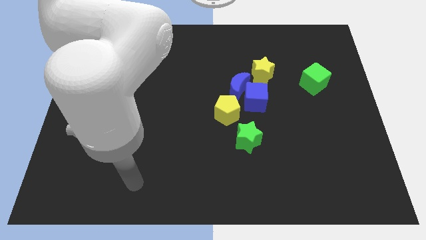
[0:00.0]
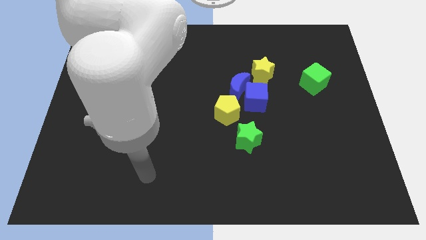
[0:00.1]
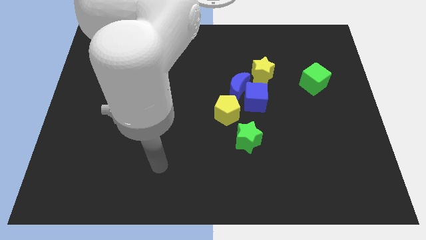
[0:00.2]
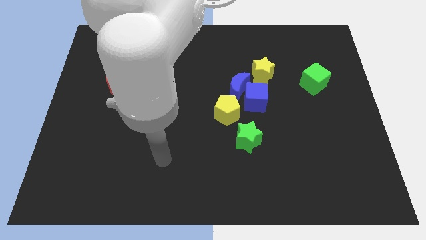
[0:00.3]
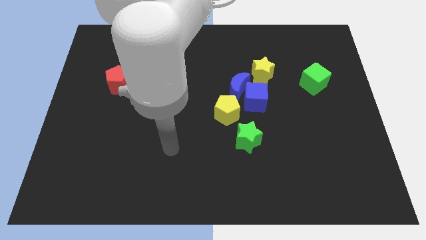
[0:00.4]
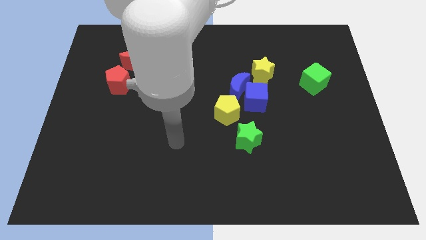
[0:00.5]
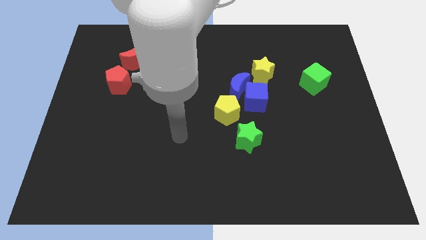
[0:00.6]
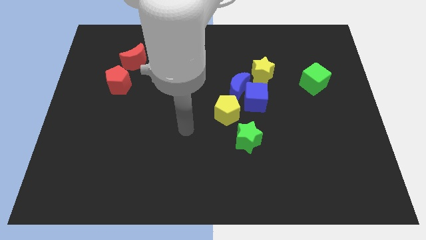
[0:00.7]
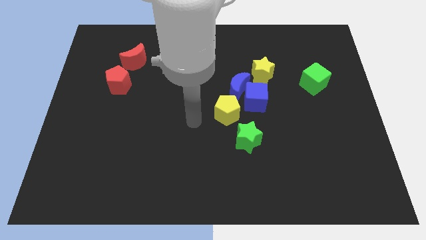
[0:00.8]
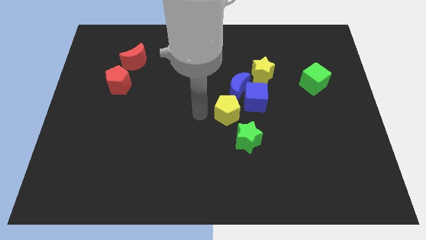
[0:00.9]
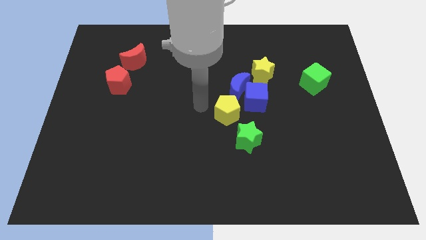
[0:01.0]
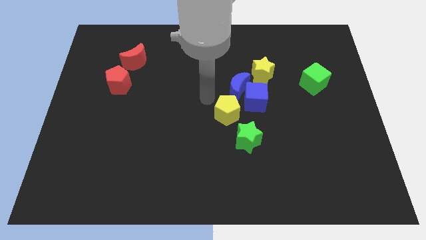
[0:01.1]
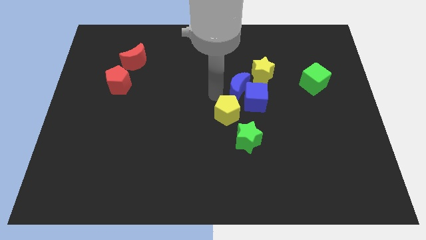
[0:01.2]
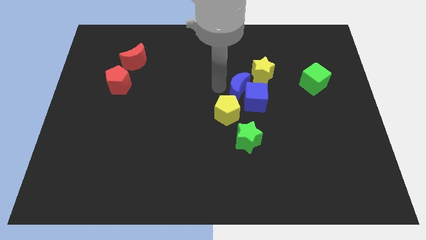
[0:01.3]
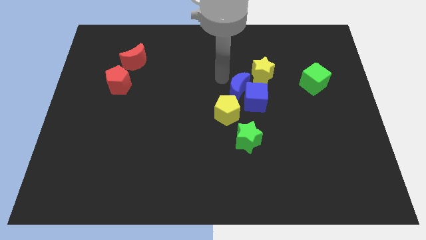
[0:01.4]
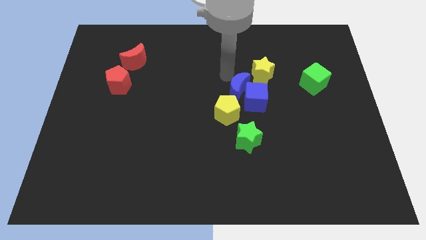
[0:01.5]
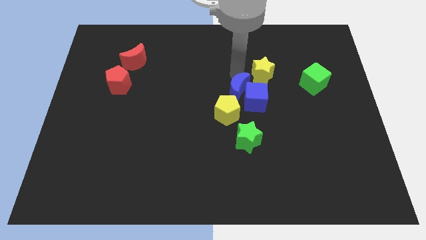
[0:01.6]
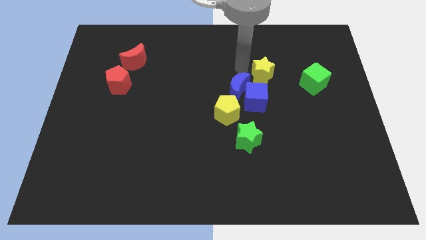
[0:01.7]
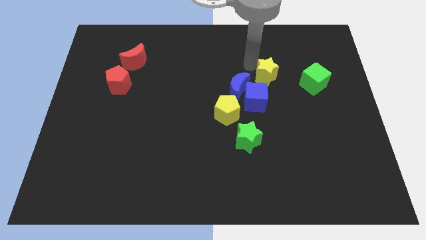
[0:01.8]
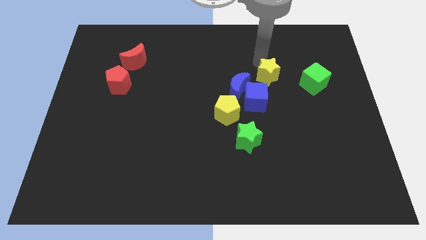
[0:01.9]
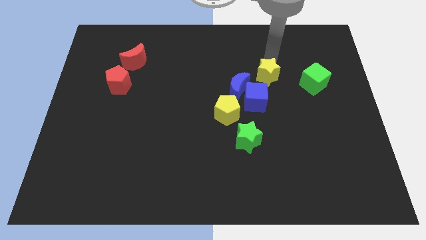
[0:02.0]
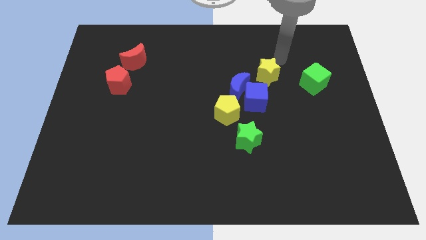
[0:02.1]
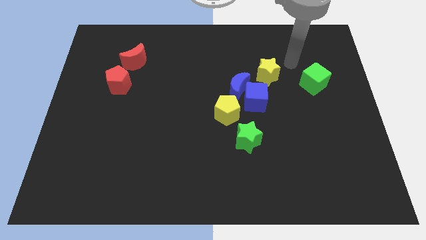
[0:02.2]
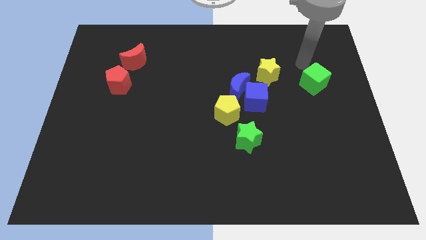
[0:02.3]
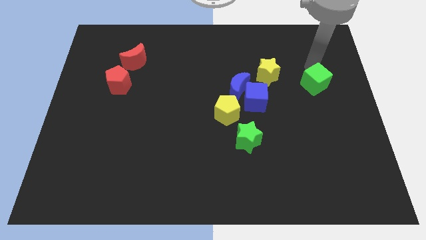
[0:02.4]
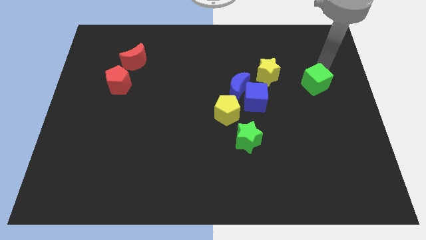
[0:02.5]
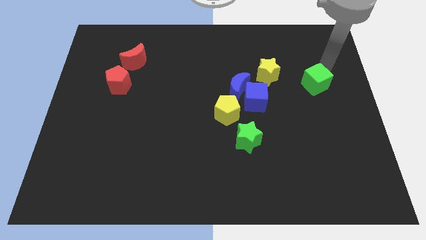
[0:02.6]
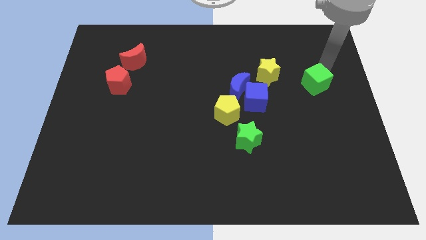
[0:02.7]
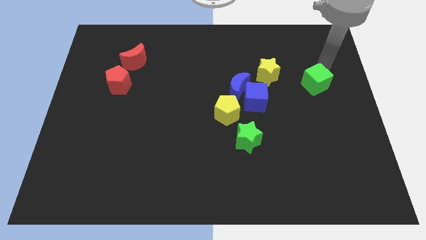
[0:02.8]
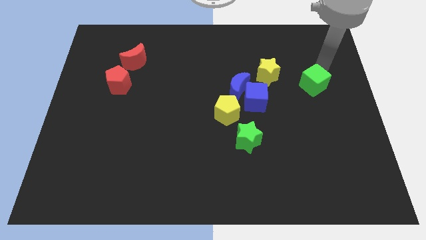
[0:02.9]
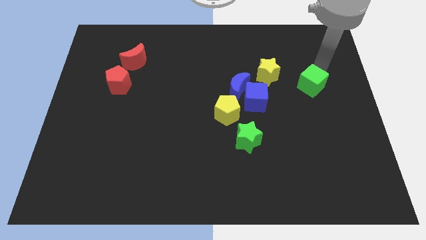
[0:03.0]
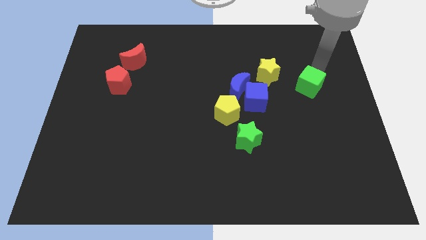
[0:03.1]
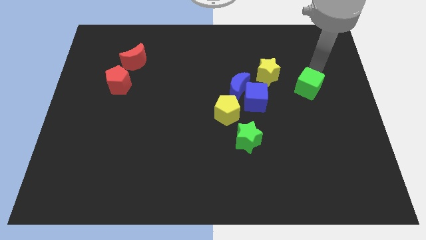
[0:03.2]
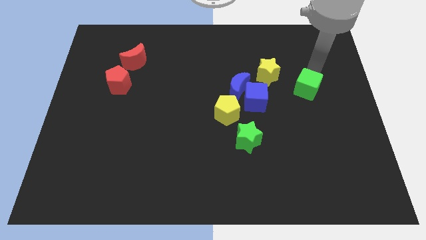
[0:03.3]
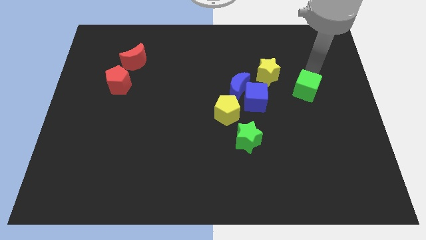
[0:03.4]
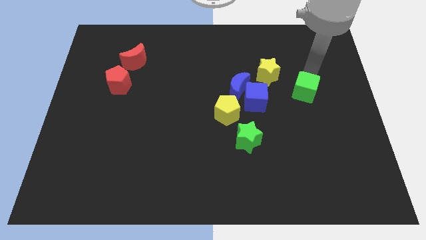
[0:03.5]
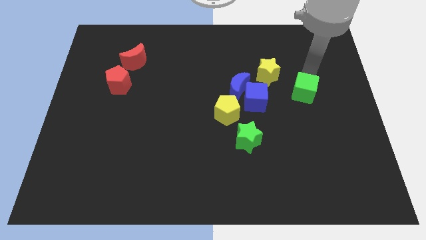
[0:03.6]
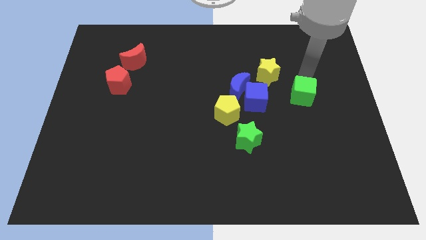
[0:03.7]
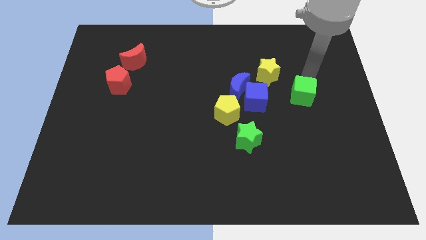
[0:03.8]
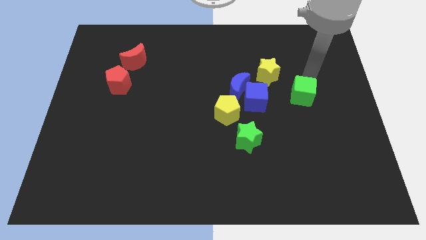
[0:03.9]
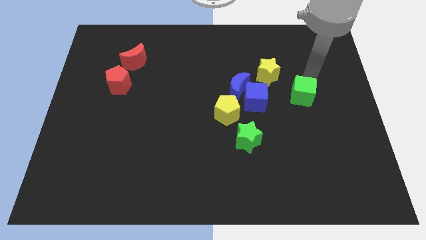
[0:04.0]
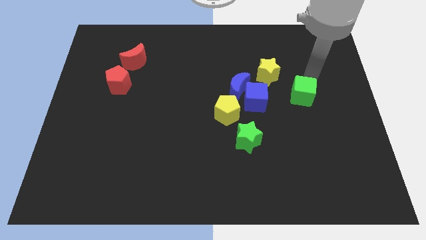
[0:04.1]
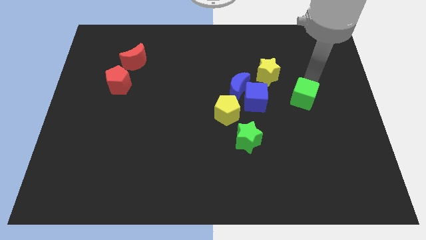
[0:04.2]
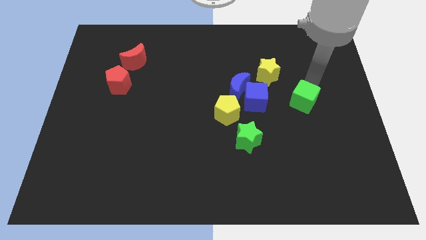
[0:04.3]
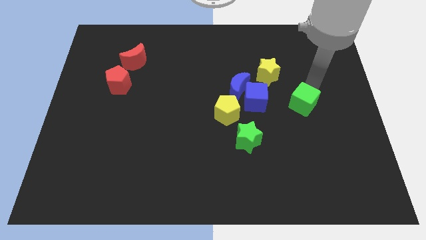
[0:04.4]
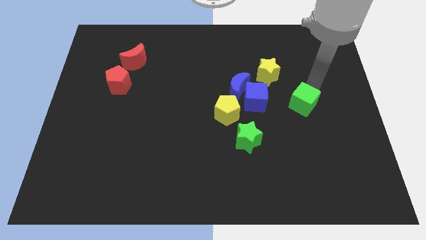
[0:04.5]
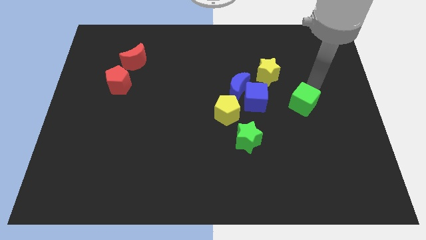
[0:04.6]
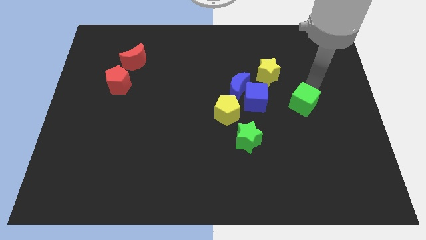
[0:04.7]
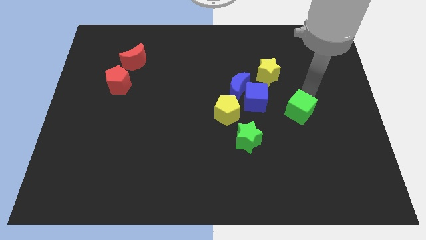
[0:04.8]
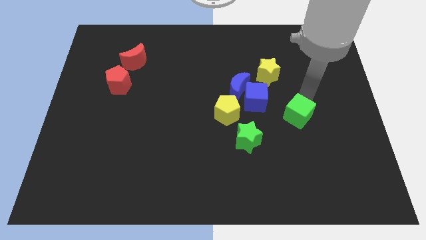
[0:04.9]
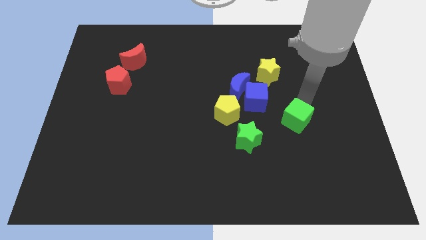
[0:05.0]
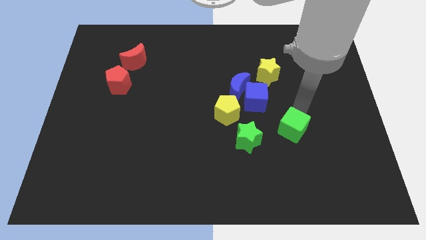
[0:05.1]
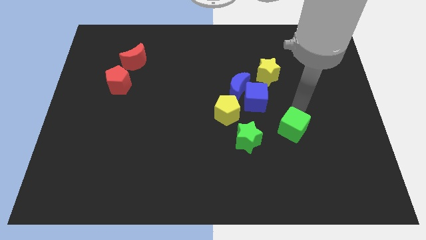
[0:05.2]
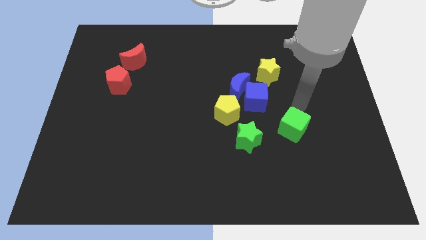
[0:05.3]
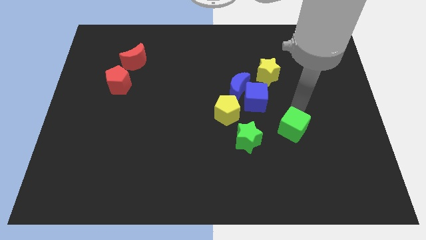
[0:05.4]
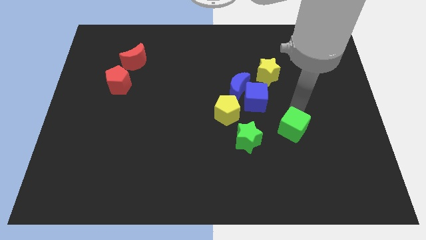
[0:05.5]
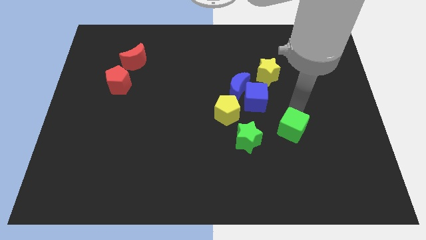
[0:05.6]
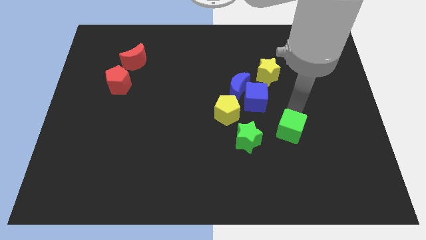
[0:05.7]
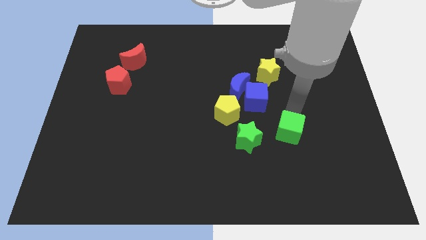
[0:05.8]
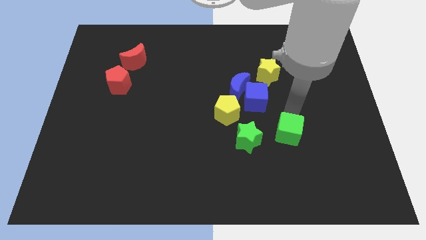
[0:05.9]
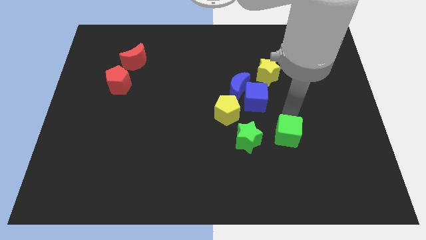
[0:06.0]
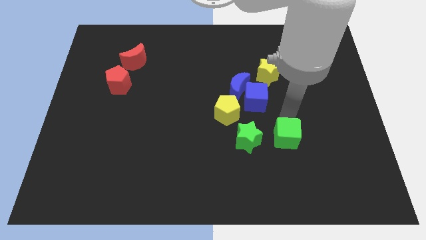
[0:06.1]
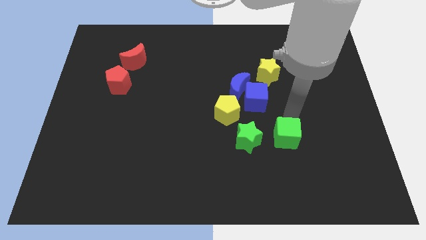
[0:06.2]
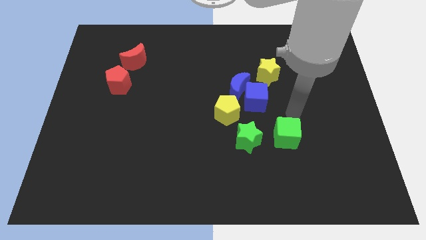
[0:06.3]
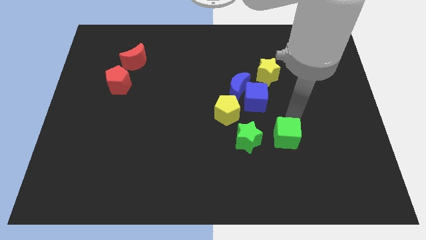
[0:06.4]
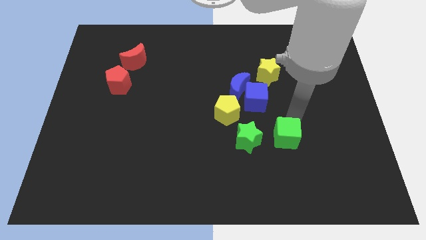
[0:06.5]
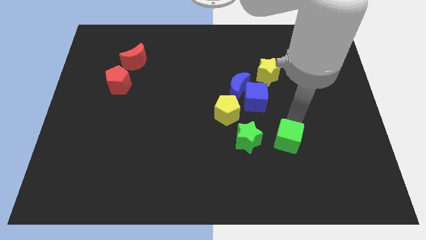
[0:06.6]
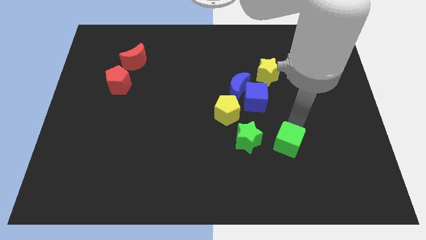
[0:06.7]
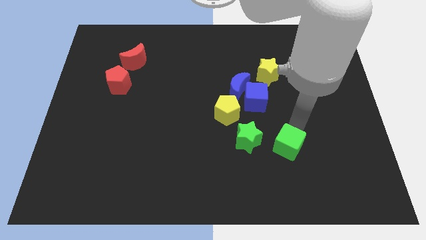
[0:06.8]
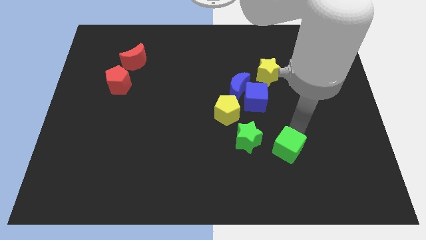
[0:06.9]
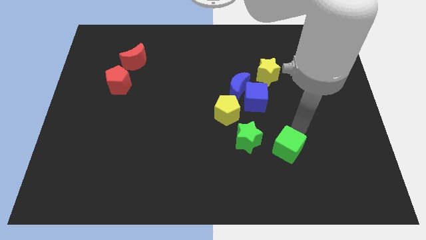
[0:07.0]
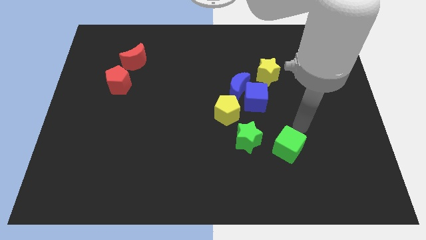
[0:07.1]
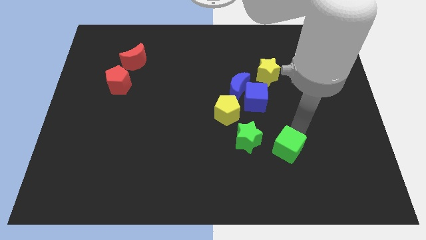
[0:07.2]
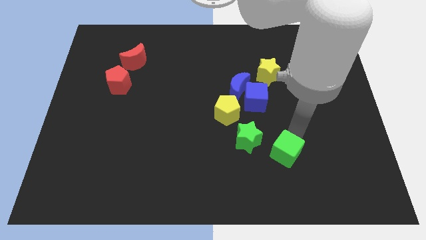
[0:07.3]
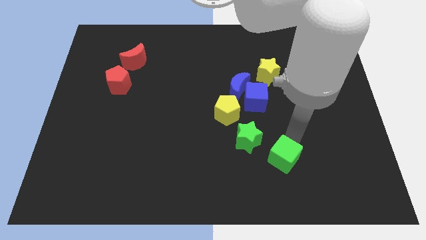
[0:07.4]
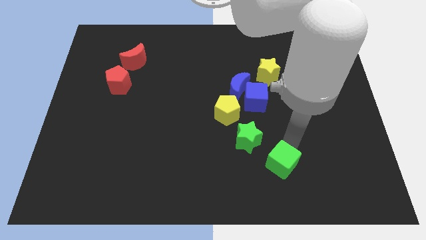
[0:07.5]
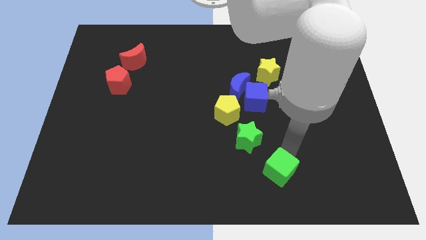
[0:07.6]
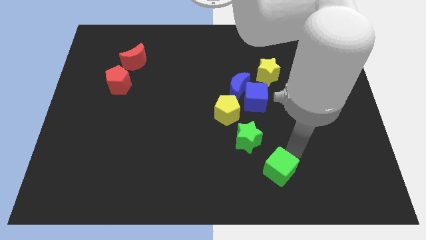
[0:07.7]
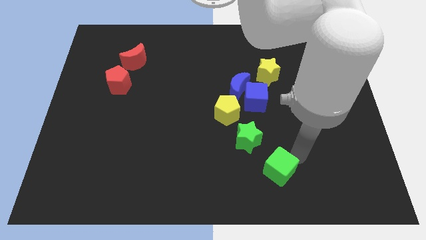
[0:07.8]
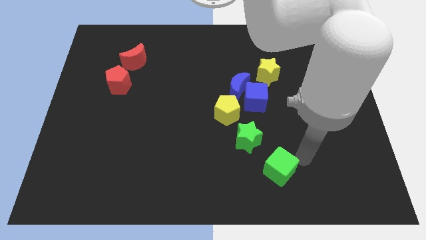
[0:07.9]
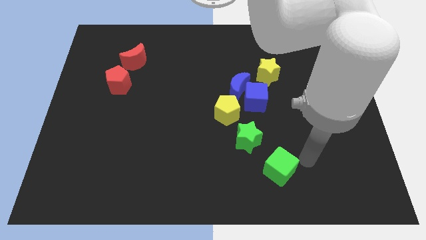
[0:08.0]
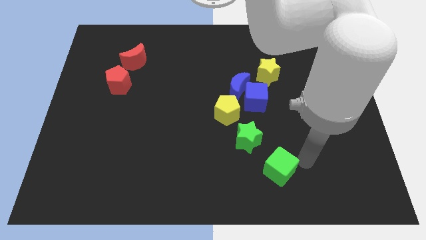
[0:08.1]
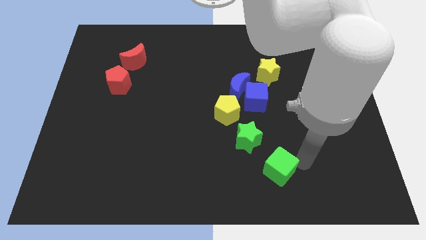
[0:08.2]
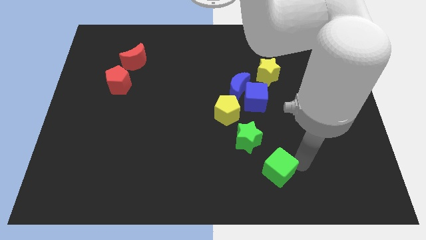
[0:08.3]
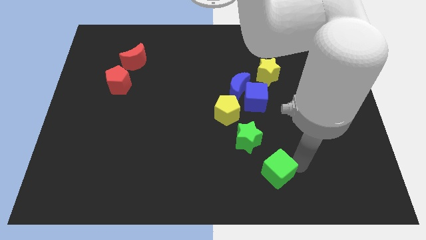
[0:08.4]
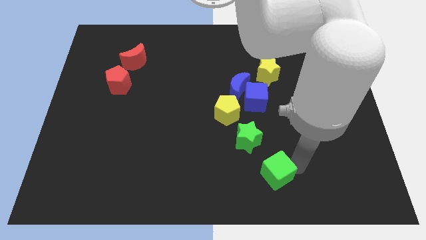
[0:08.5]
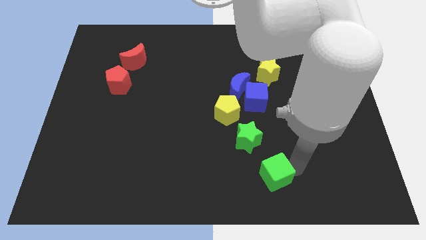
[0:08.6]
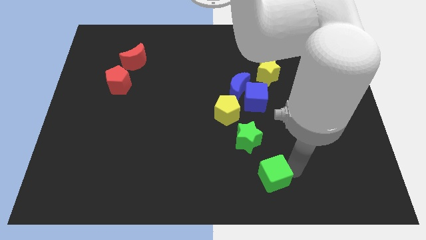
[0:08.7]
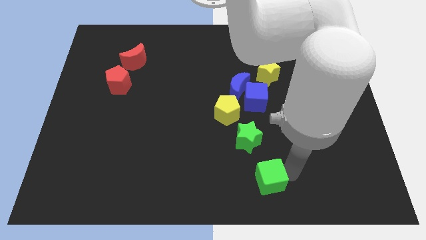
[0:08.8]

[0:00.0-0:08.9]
slide the green cube to the bottom side
